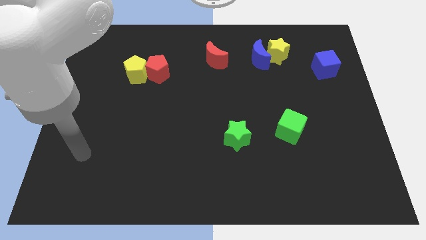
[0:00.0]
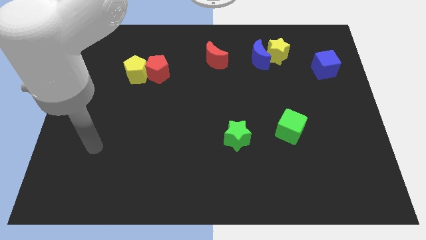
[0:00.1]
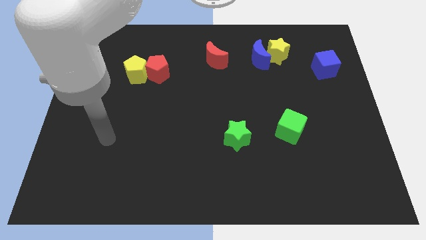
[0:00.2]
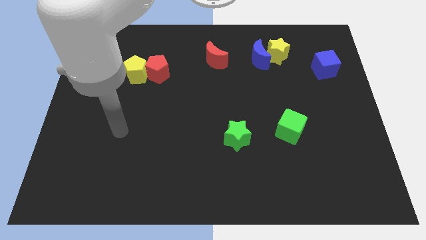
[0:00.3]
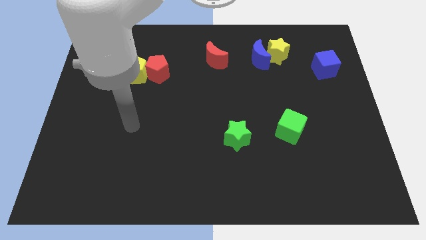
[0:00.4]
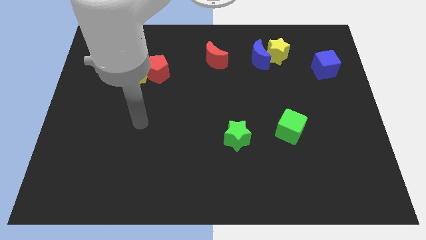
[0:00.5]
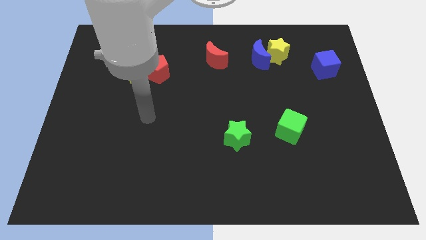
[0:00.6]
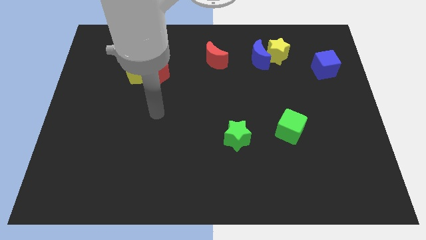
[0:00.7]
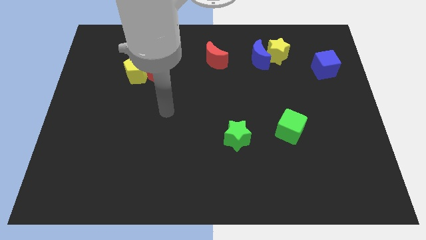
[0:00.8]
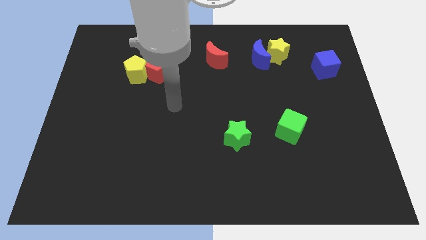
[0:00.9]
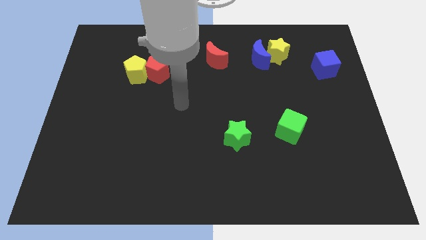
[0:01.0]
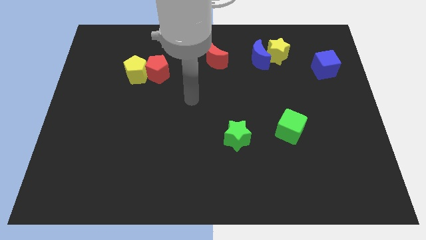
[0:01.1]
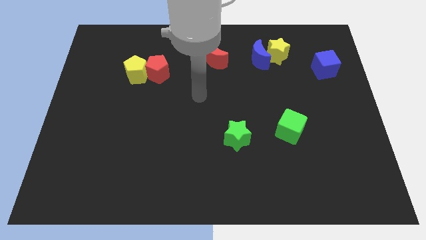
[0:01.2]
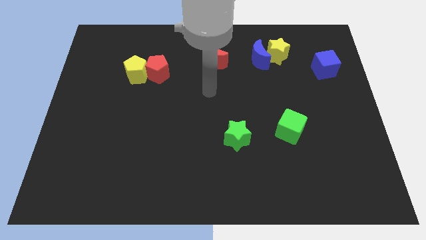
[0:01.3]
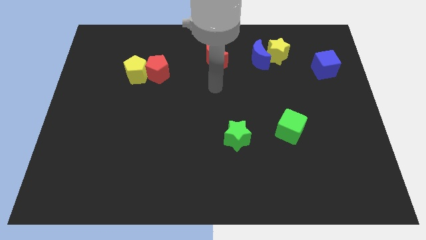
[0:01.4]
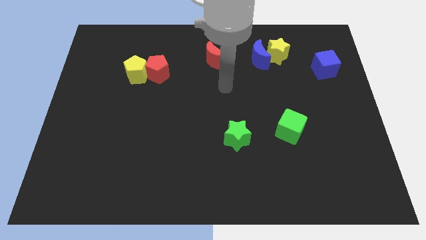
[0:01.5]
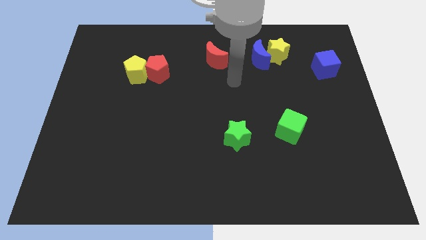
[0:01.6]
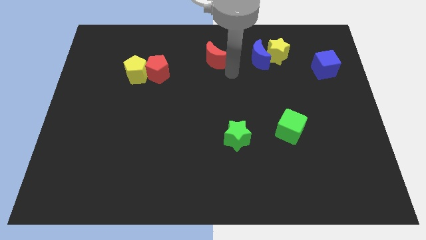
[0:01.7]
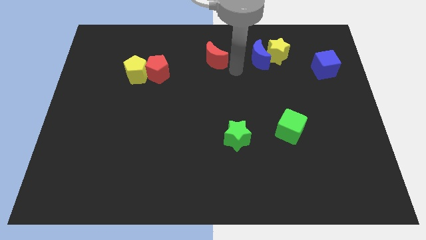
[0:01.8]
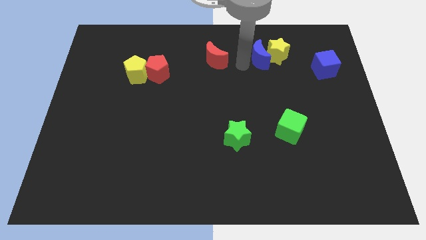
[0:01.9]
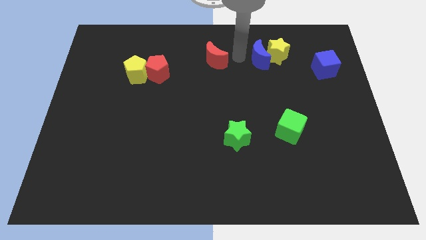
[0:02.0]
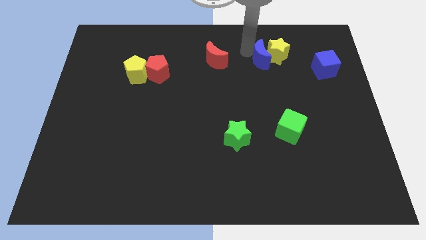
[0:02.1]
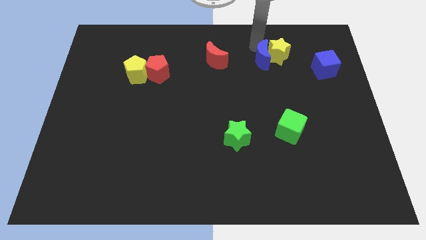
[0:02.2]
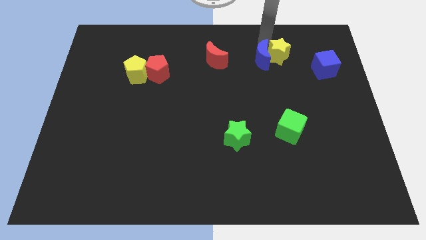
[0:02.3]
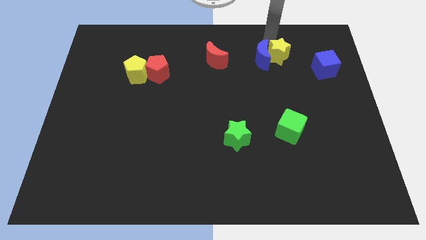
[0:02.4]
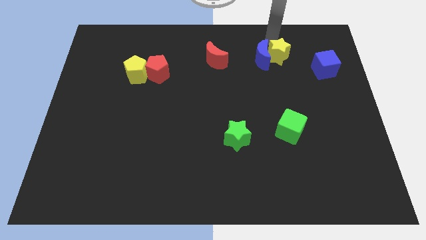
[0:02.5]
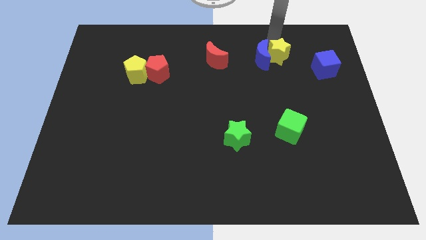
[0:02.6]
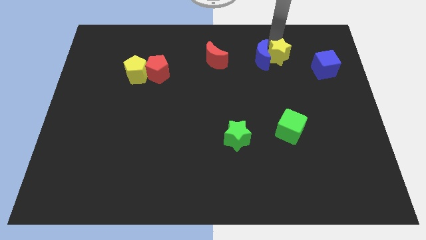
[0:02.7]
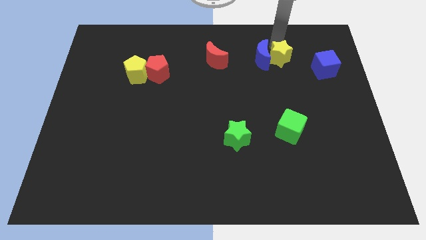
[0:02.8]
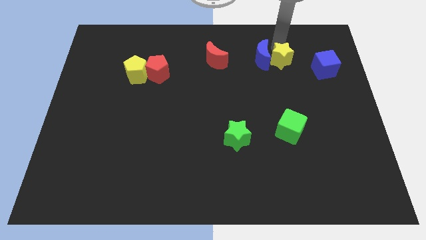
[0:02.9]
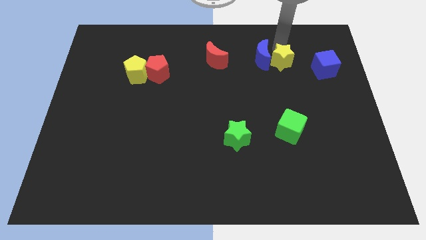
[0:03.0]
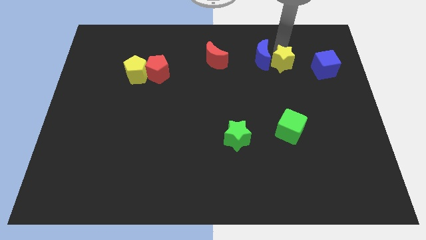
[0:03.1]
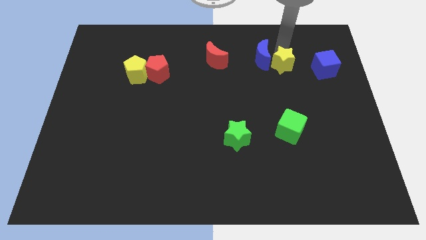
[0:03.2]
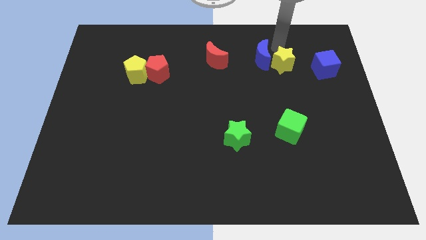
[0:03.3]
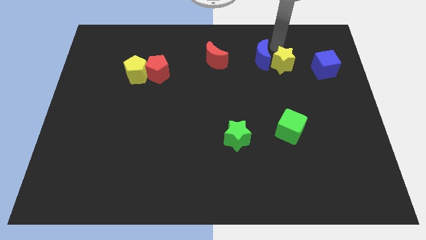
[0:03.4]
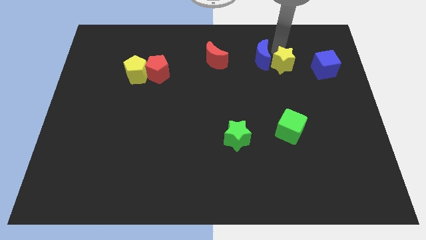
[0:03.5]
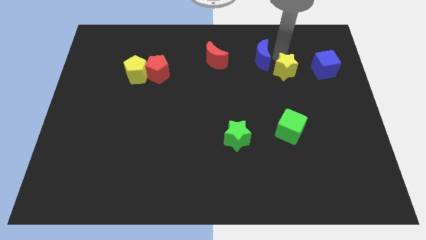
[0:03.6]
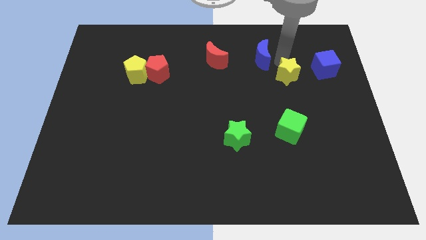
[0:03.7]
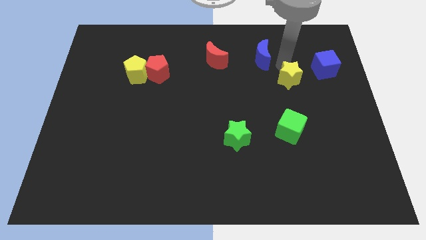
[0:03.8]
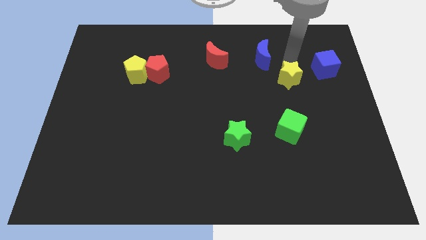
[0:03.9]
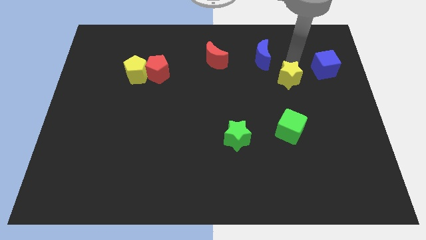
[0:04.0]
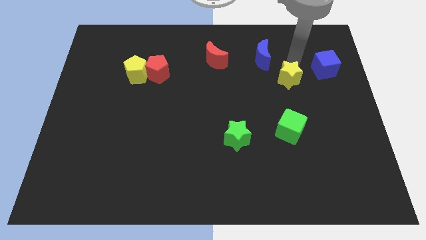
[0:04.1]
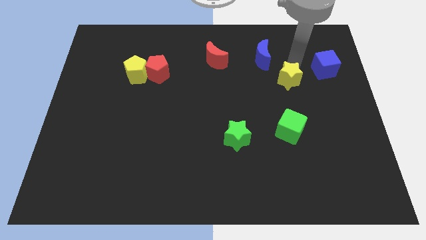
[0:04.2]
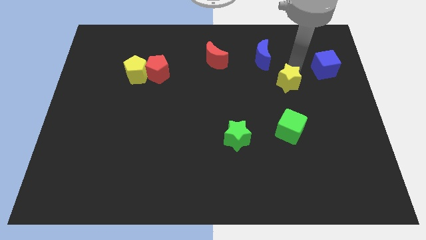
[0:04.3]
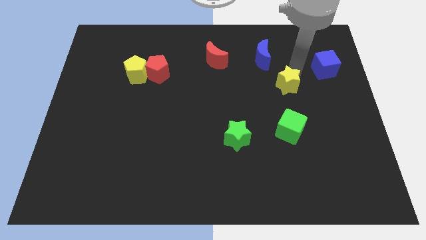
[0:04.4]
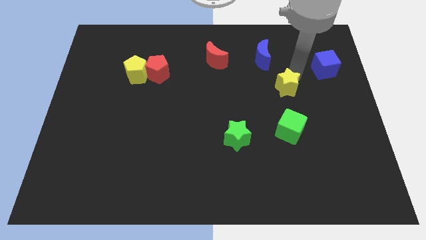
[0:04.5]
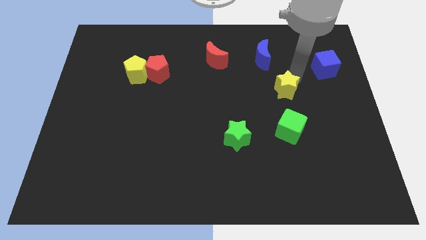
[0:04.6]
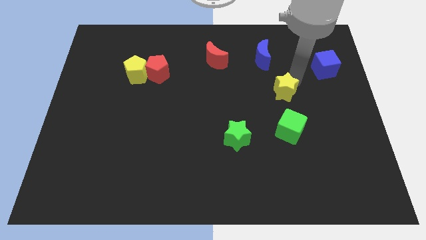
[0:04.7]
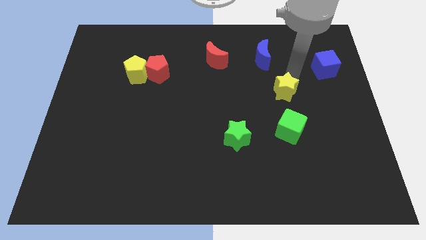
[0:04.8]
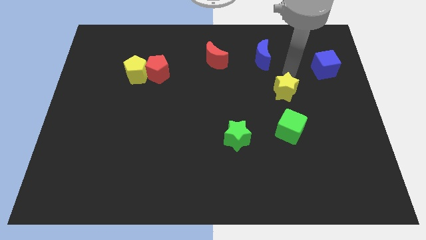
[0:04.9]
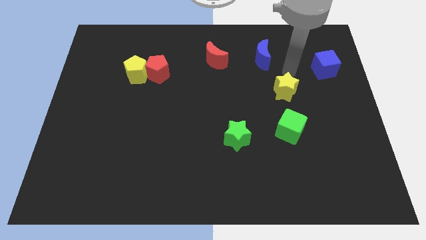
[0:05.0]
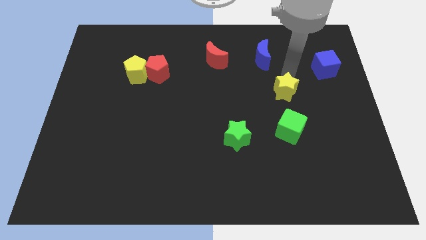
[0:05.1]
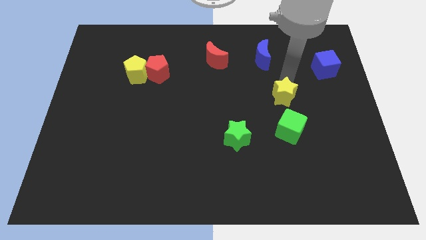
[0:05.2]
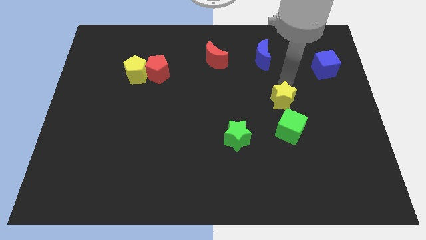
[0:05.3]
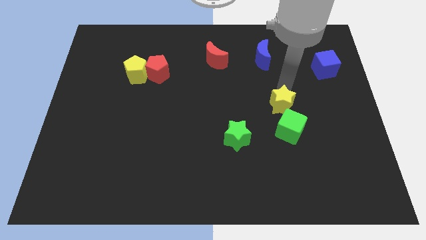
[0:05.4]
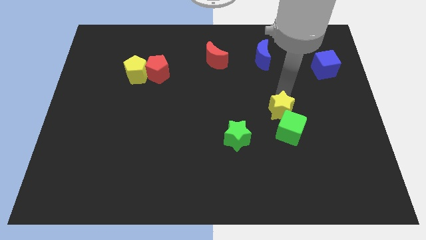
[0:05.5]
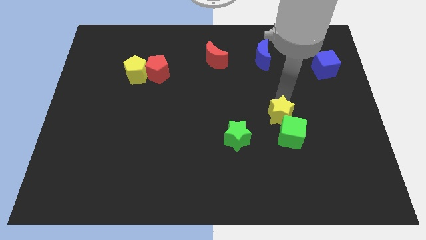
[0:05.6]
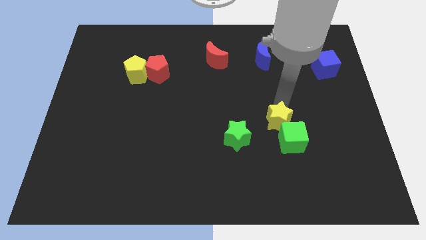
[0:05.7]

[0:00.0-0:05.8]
push the yellow star downwards

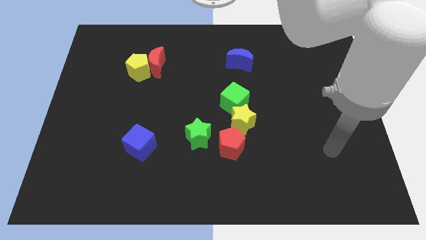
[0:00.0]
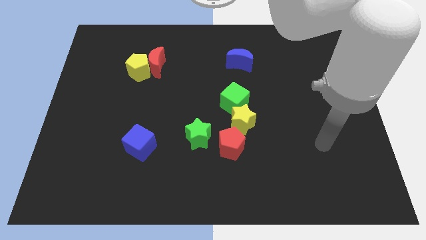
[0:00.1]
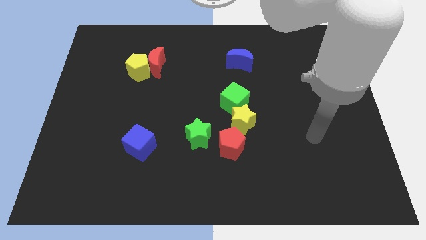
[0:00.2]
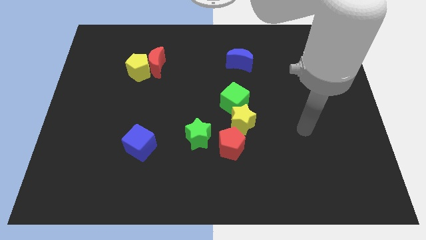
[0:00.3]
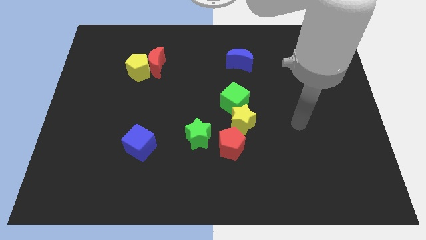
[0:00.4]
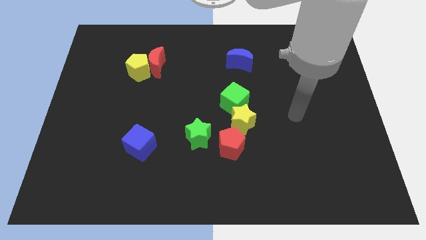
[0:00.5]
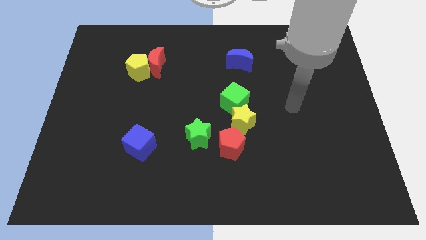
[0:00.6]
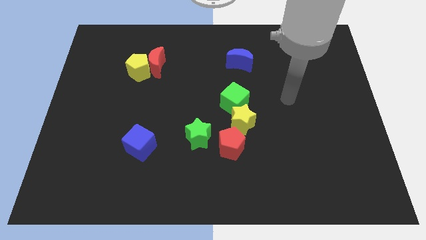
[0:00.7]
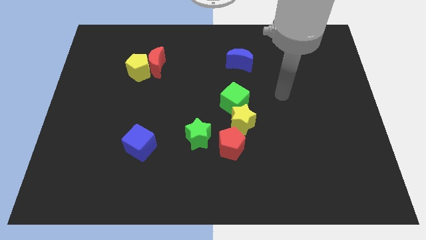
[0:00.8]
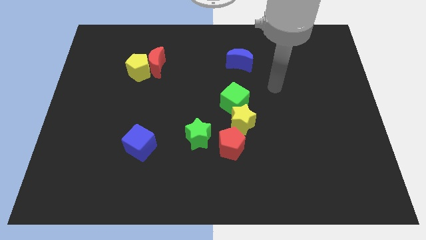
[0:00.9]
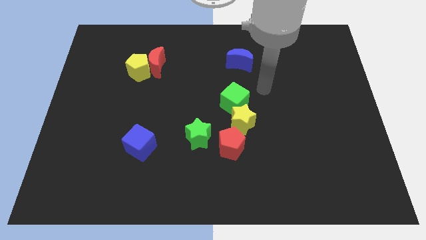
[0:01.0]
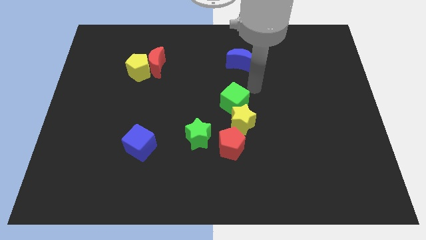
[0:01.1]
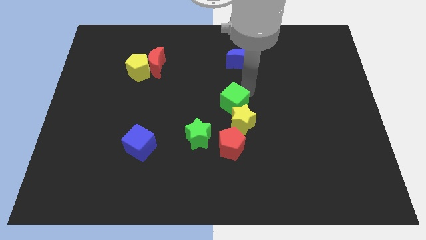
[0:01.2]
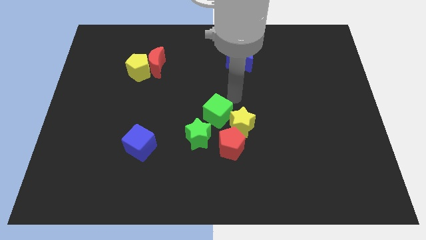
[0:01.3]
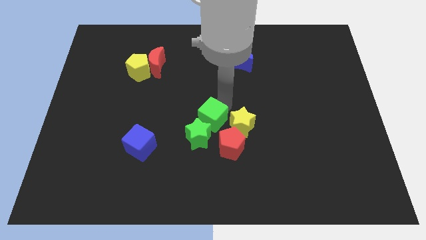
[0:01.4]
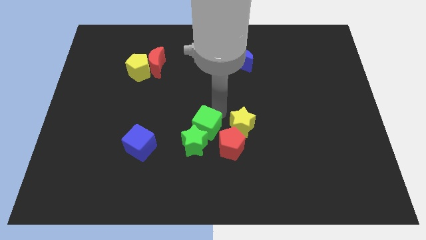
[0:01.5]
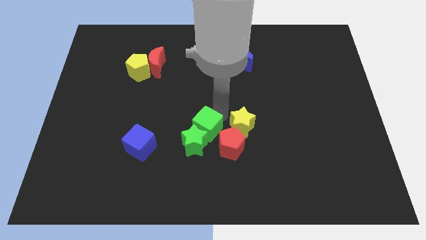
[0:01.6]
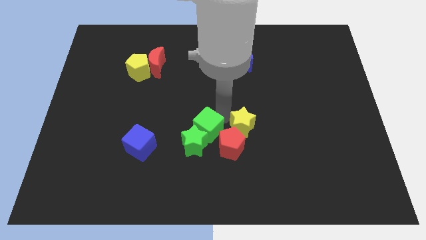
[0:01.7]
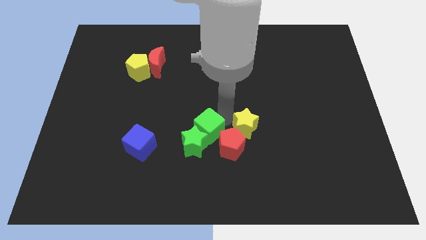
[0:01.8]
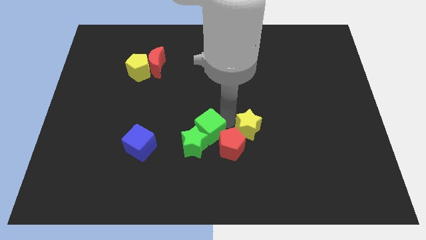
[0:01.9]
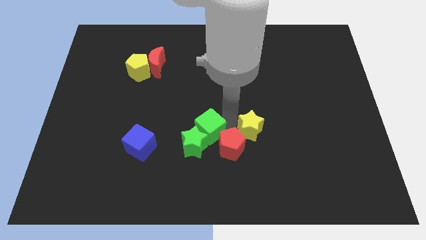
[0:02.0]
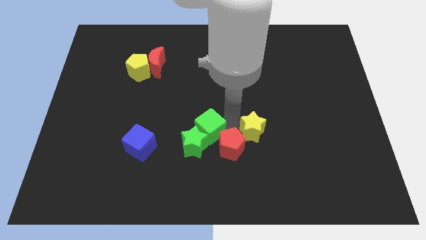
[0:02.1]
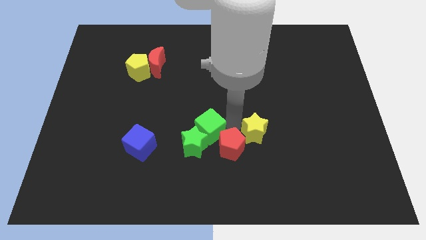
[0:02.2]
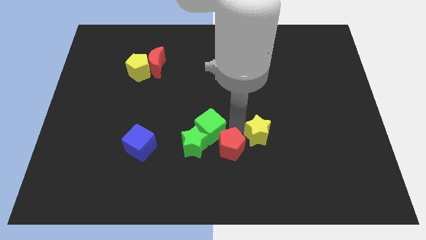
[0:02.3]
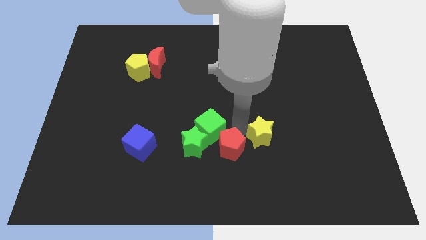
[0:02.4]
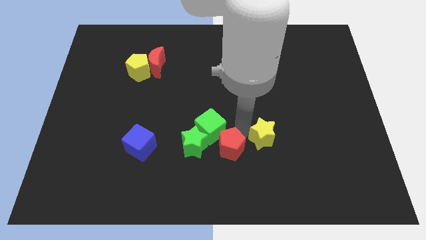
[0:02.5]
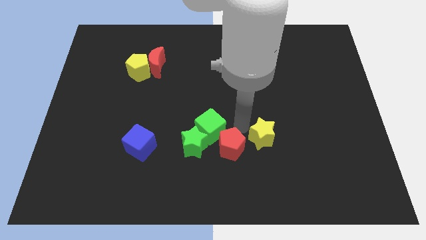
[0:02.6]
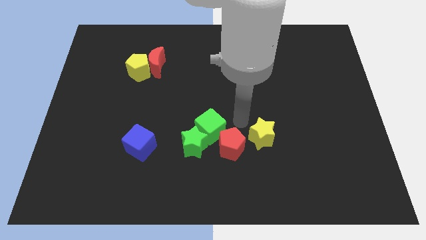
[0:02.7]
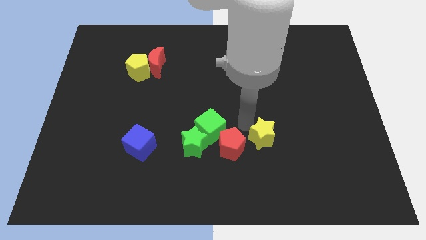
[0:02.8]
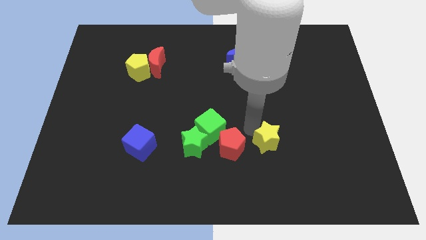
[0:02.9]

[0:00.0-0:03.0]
move the yellow star a bit downwards and right diagonally
